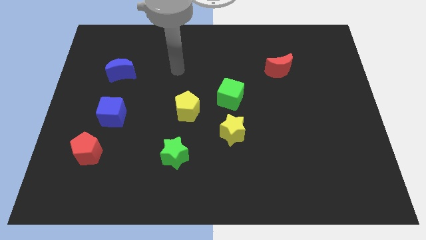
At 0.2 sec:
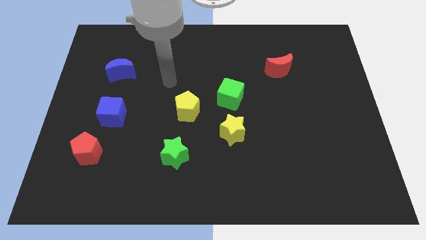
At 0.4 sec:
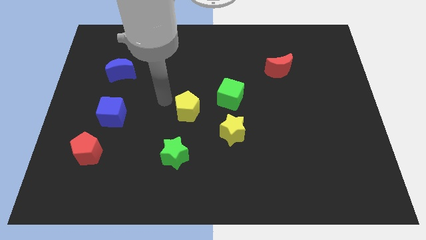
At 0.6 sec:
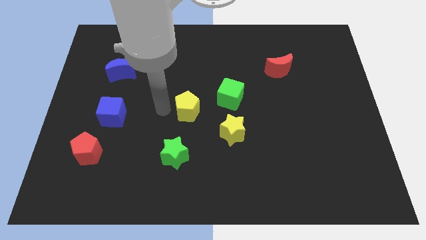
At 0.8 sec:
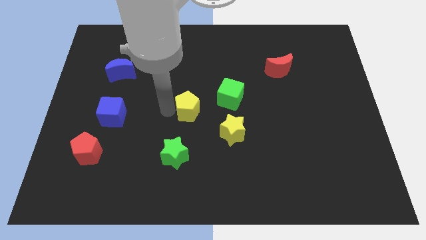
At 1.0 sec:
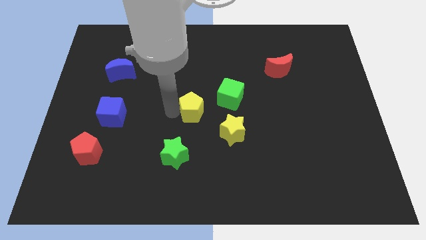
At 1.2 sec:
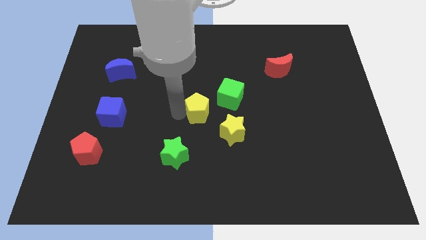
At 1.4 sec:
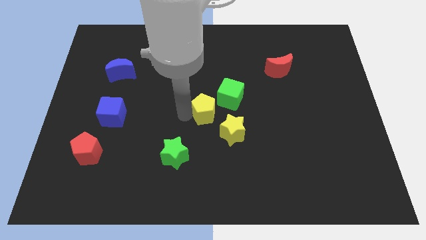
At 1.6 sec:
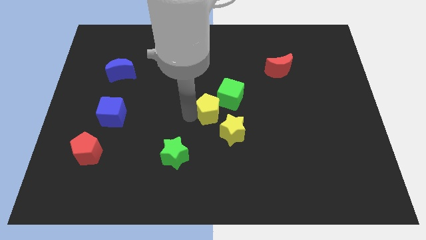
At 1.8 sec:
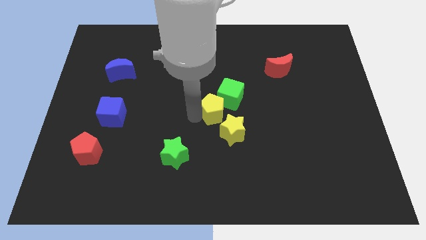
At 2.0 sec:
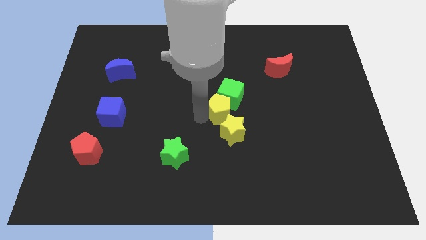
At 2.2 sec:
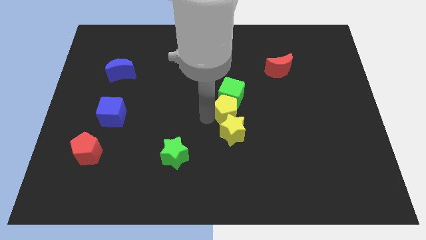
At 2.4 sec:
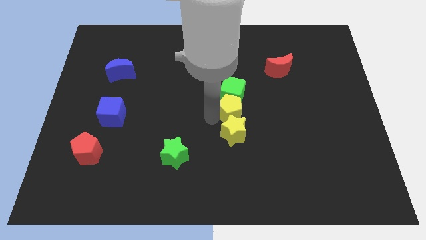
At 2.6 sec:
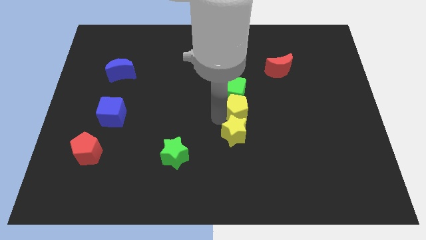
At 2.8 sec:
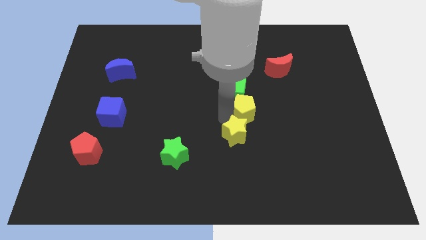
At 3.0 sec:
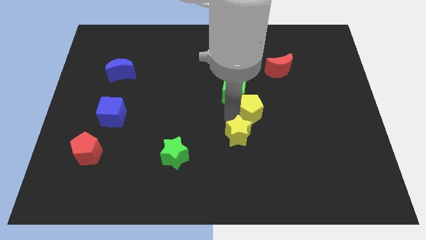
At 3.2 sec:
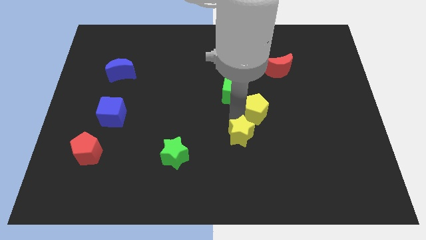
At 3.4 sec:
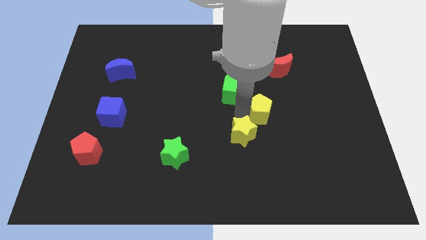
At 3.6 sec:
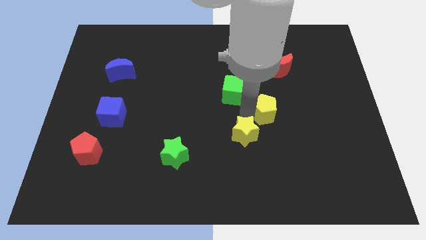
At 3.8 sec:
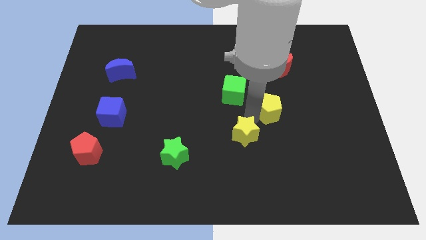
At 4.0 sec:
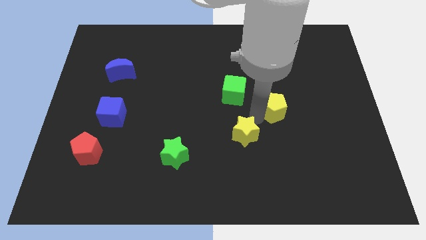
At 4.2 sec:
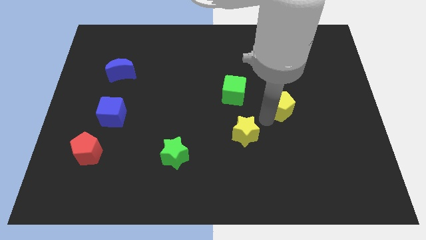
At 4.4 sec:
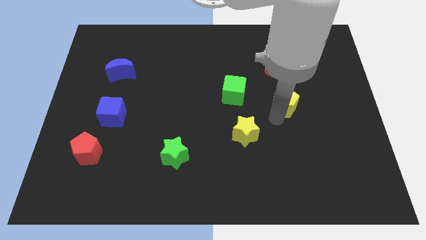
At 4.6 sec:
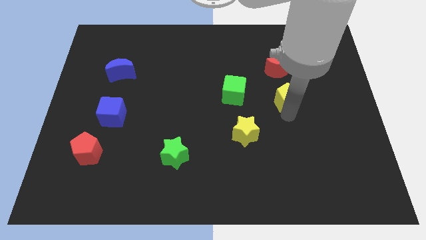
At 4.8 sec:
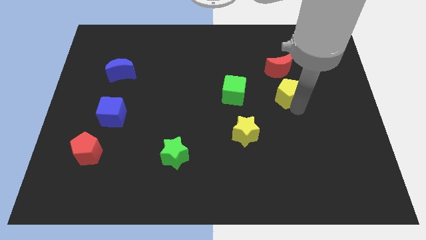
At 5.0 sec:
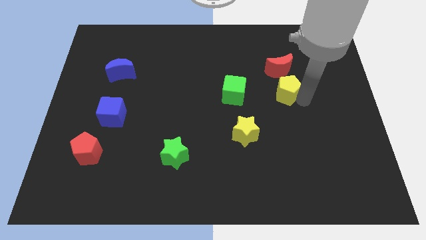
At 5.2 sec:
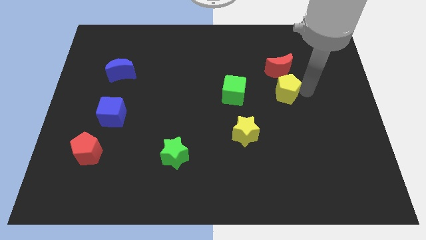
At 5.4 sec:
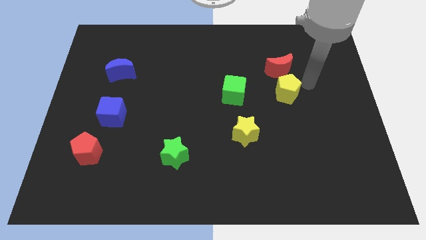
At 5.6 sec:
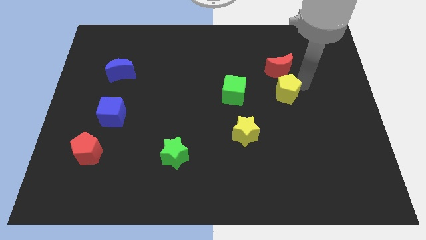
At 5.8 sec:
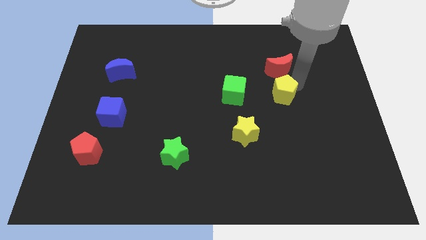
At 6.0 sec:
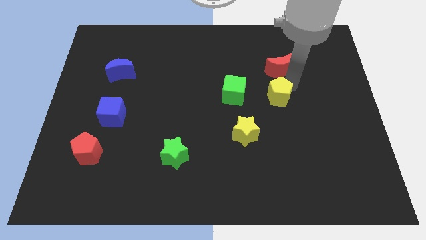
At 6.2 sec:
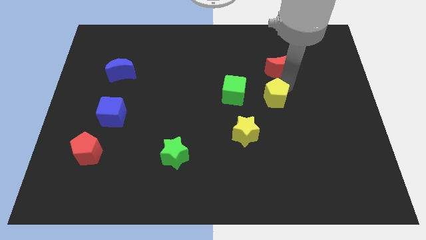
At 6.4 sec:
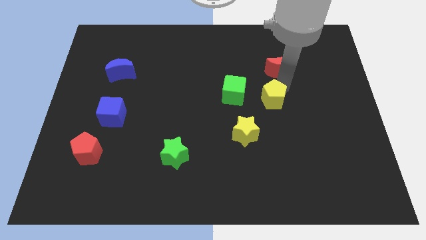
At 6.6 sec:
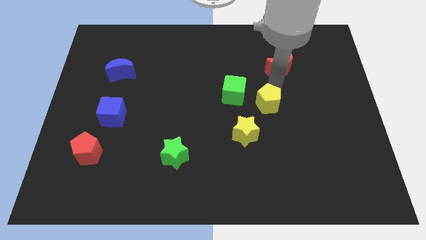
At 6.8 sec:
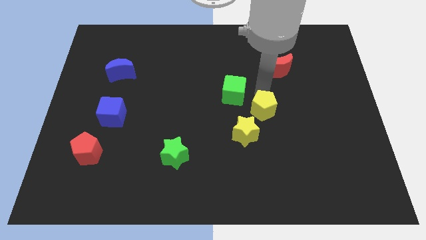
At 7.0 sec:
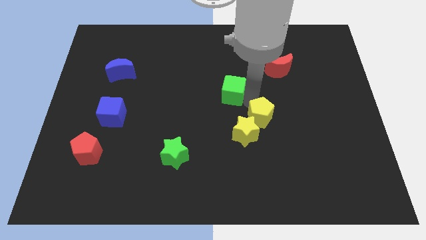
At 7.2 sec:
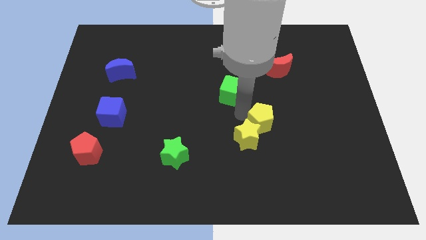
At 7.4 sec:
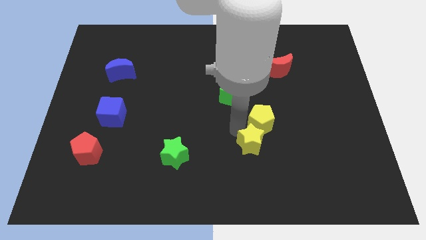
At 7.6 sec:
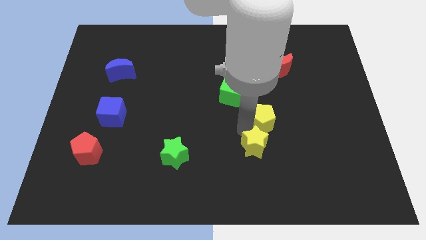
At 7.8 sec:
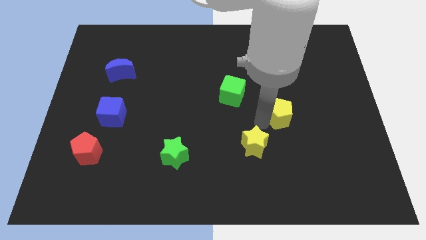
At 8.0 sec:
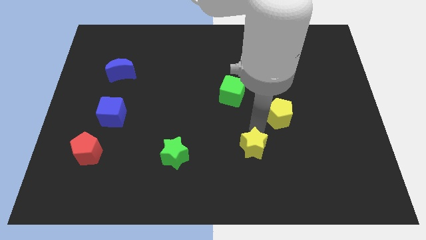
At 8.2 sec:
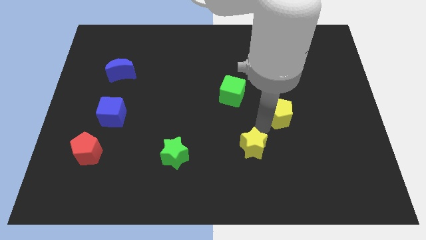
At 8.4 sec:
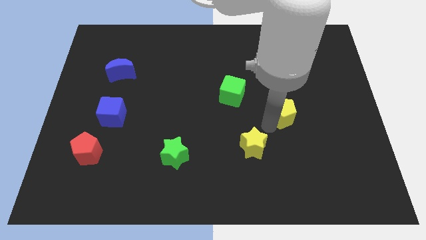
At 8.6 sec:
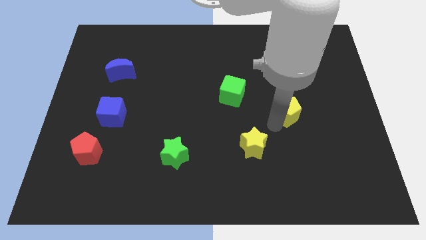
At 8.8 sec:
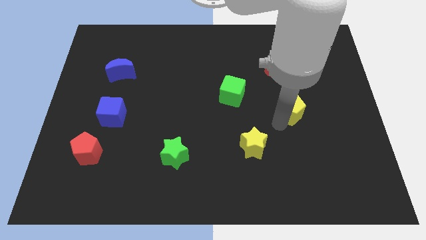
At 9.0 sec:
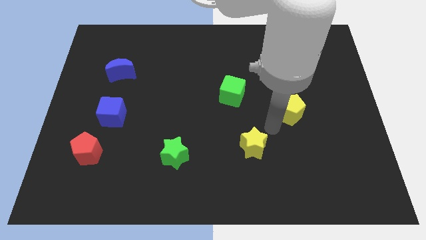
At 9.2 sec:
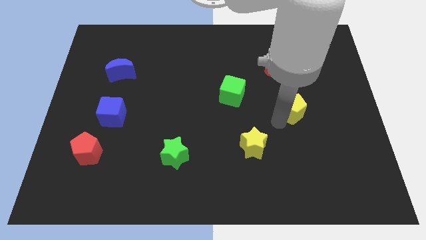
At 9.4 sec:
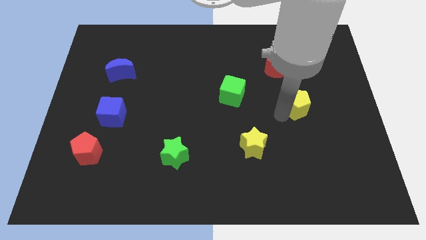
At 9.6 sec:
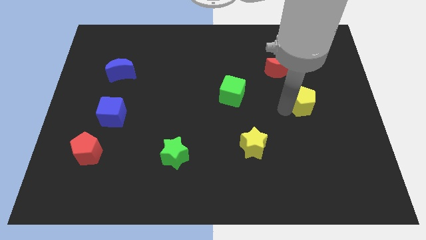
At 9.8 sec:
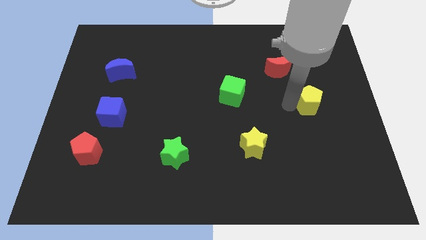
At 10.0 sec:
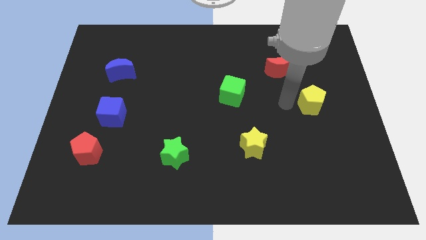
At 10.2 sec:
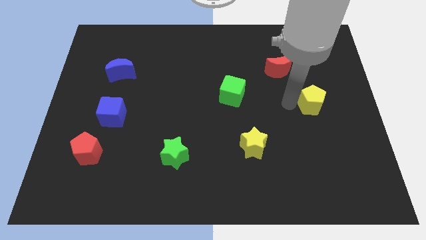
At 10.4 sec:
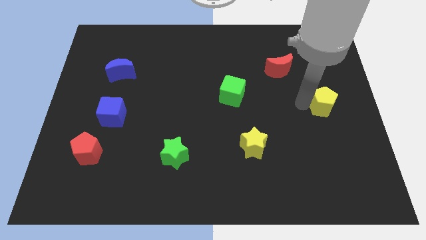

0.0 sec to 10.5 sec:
push the yellow pentagon to the right side of the board
